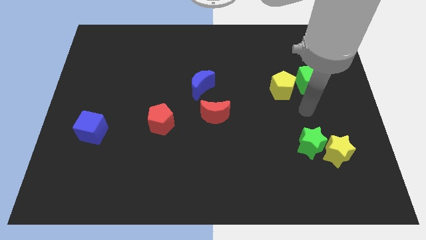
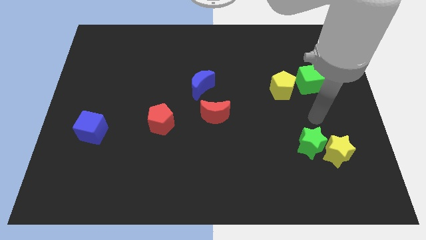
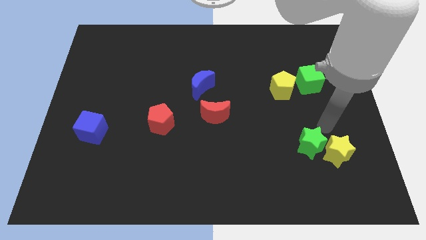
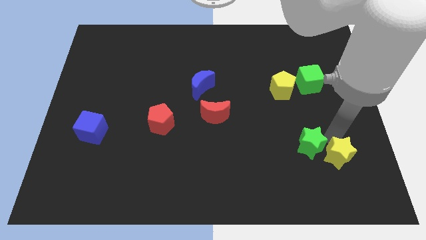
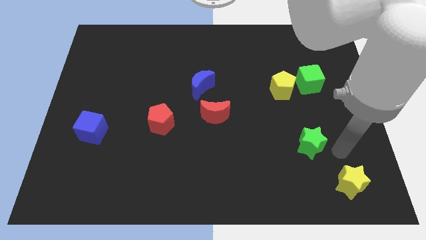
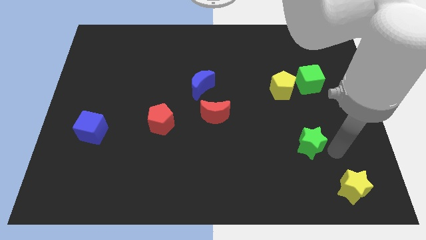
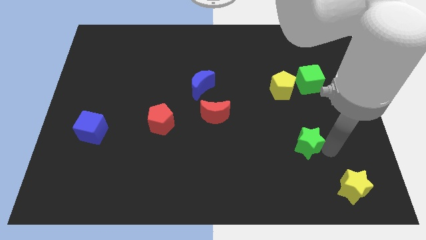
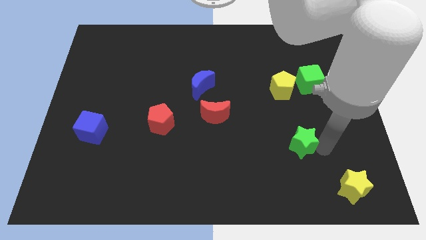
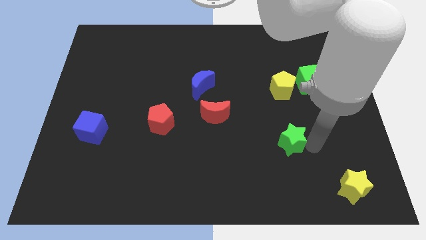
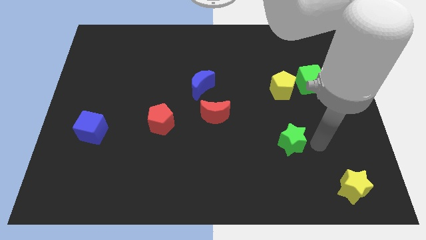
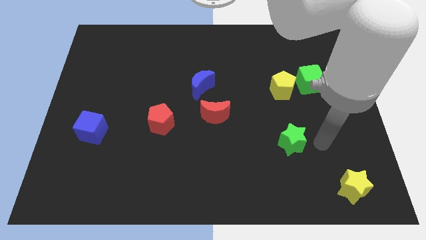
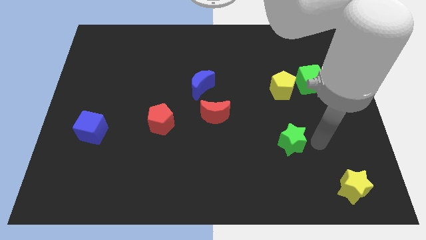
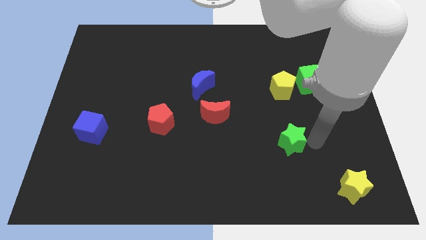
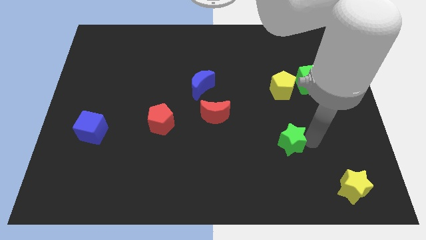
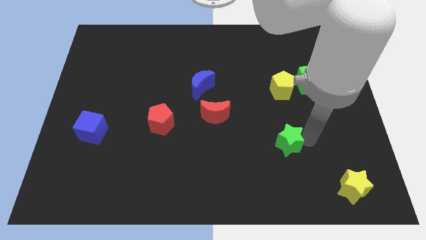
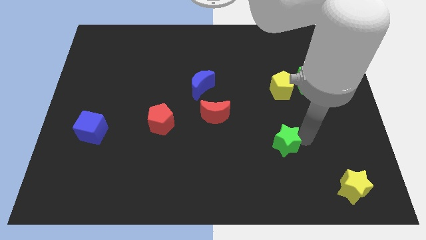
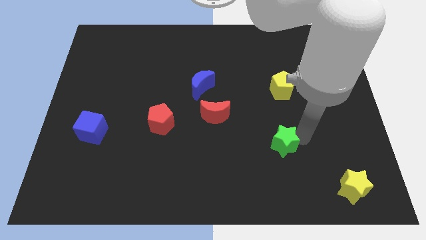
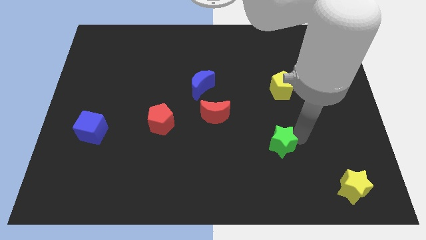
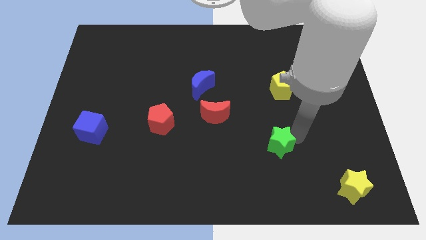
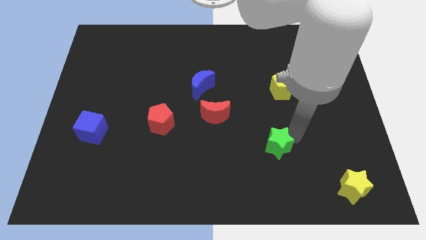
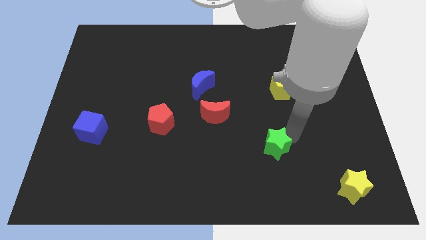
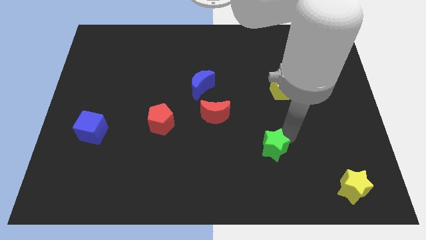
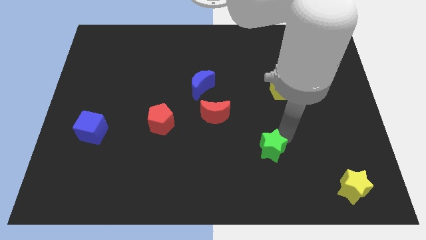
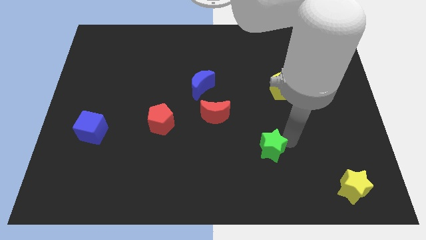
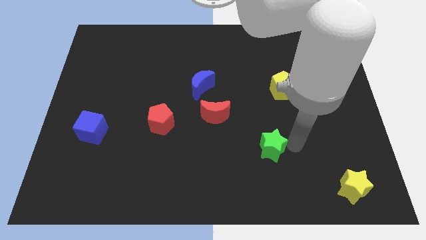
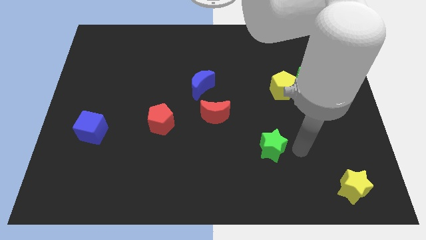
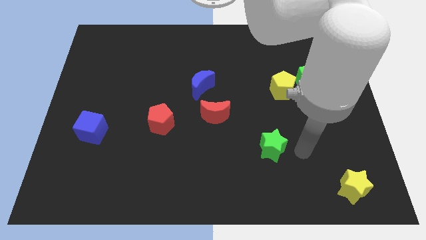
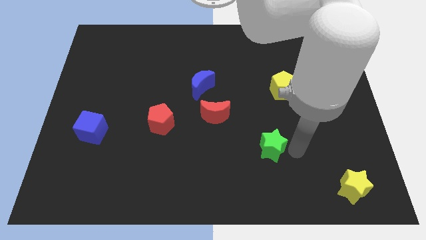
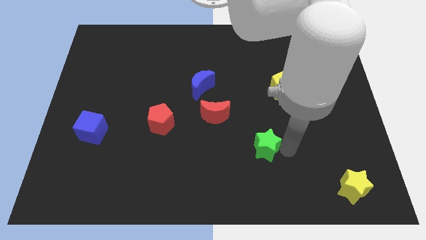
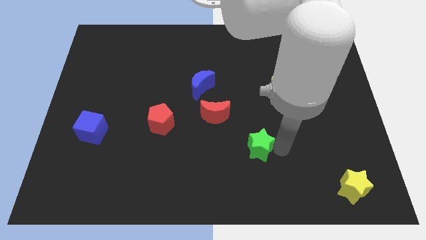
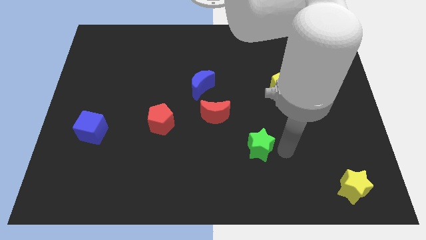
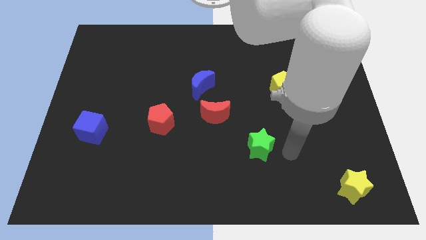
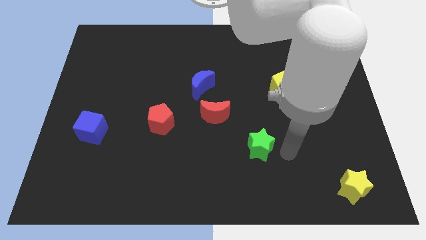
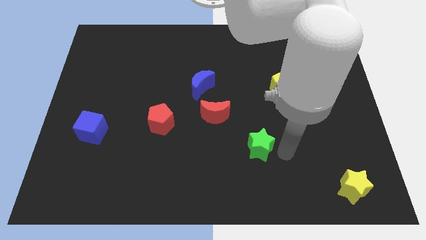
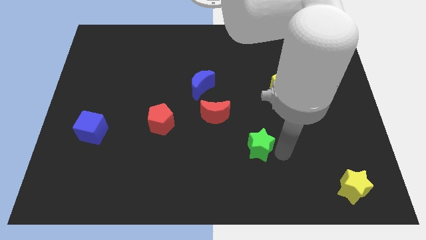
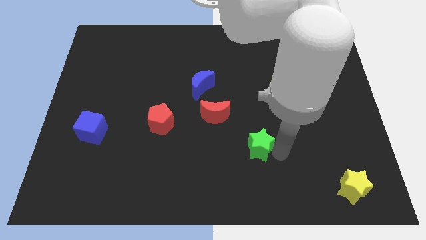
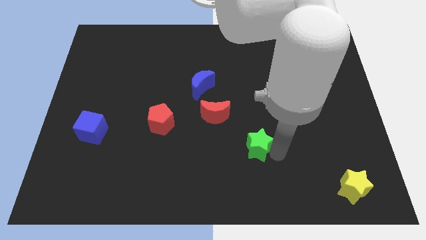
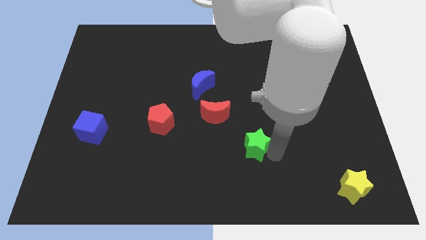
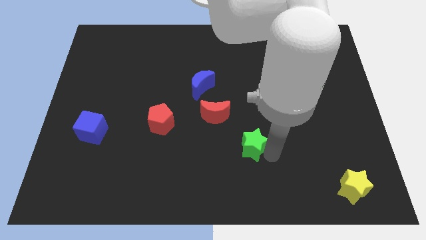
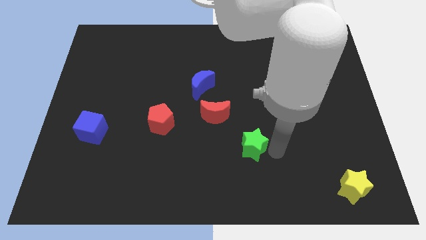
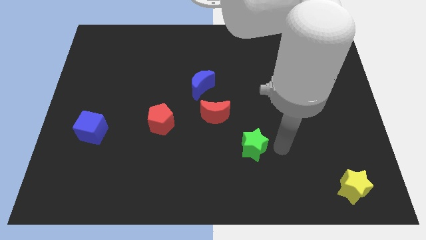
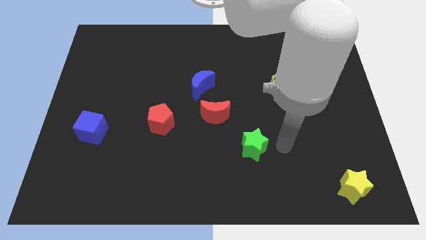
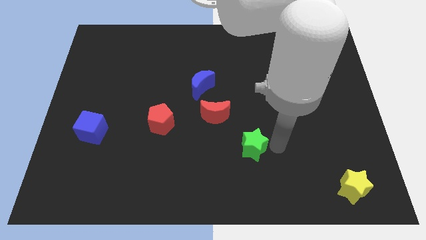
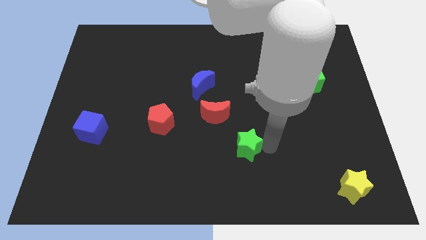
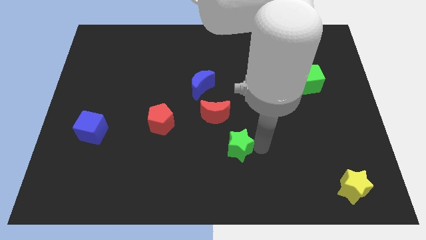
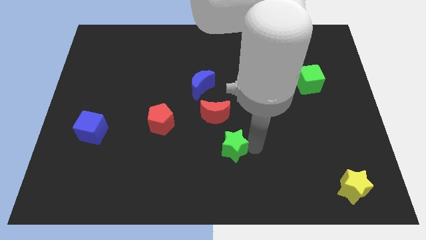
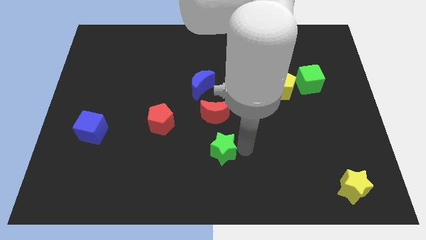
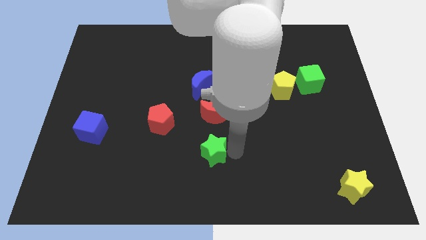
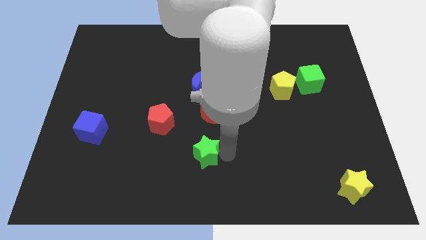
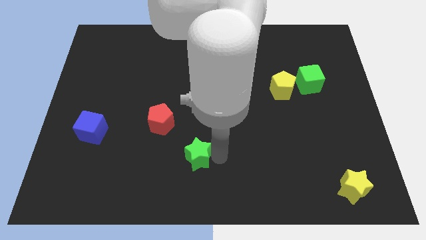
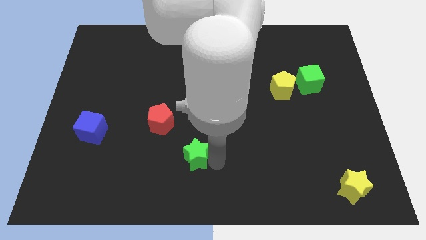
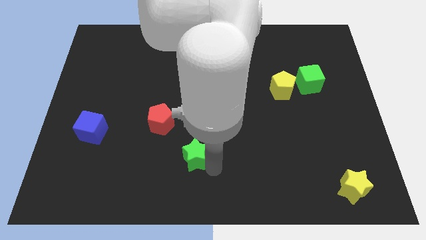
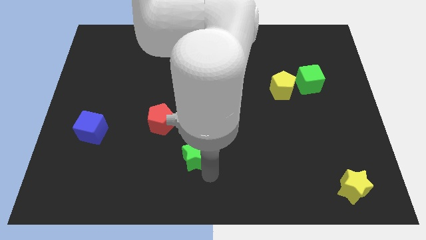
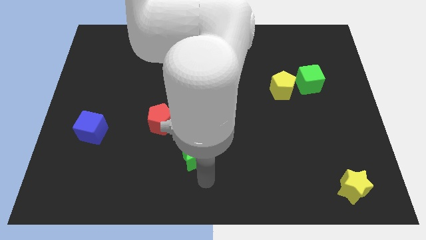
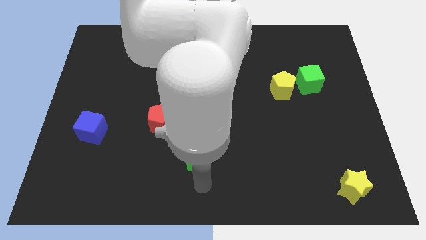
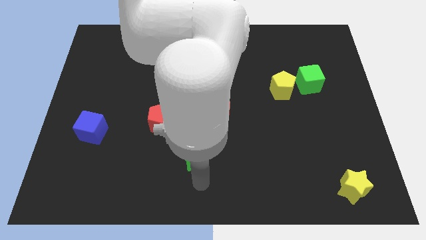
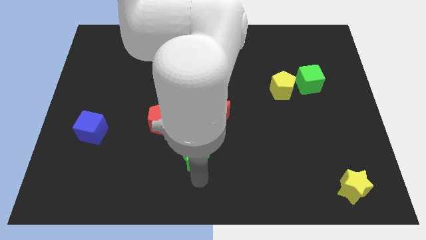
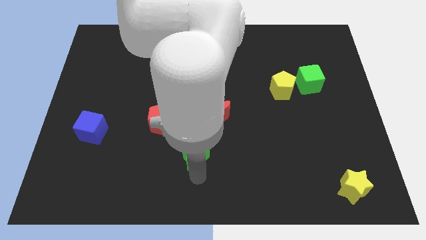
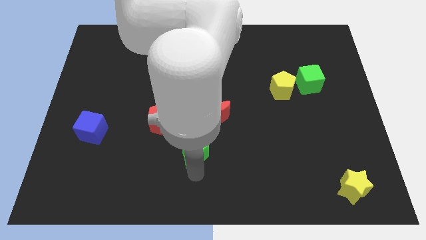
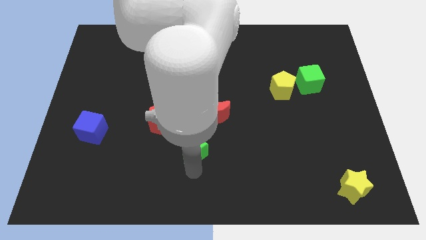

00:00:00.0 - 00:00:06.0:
put the green star diagonally down and to the left of the red moon

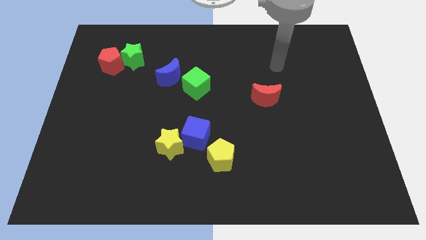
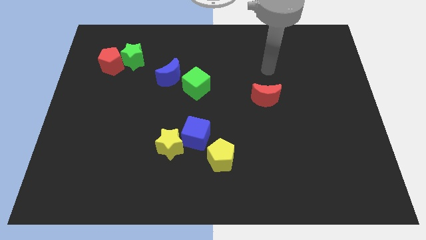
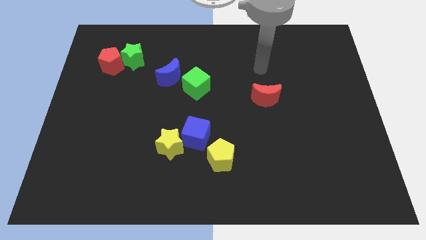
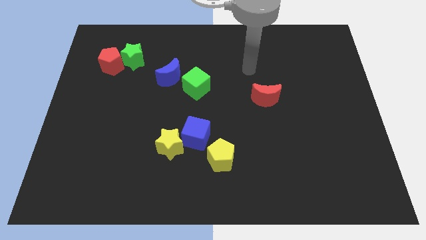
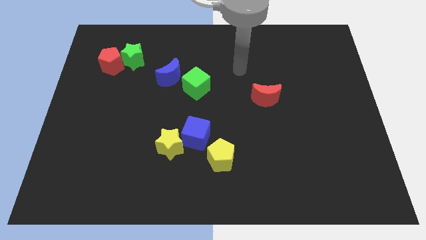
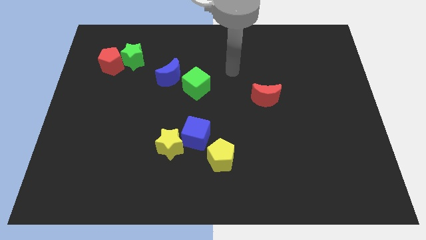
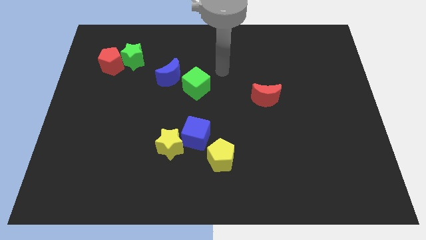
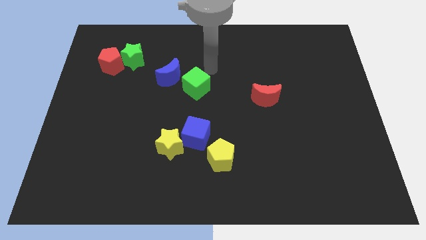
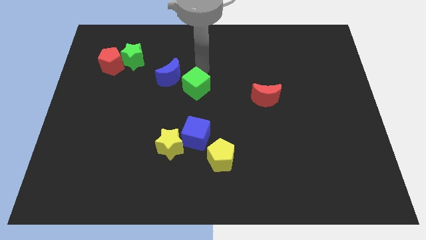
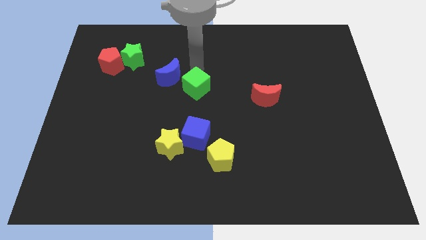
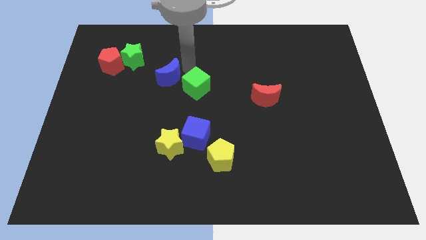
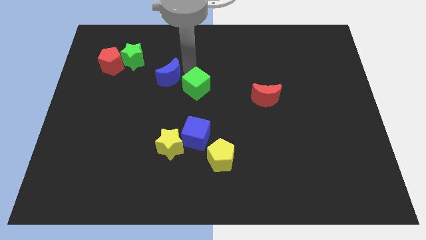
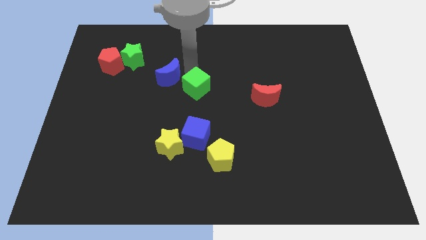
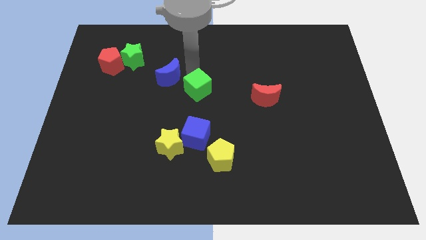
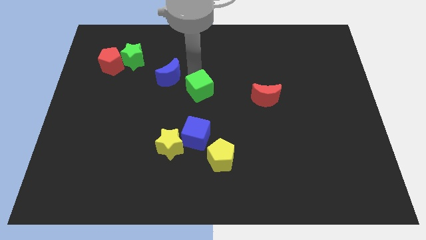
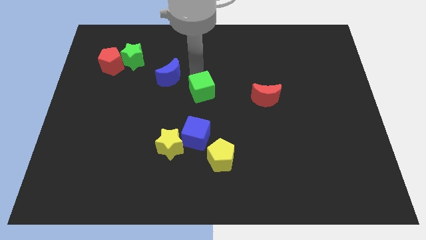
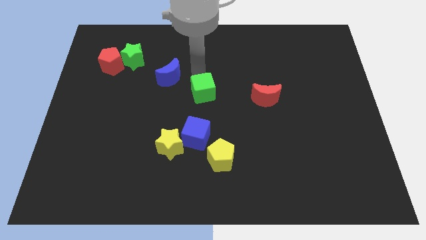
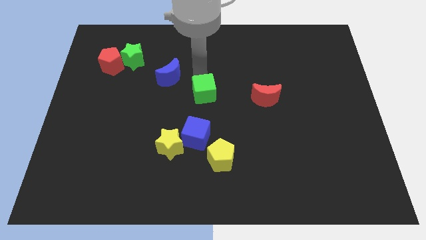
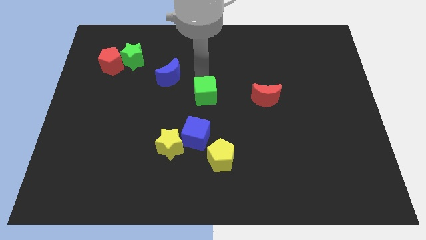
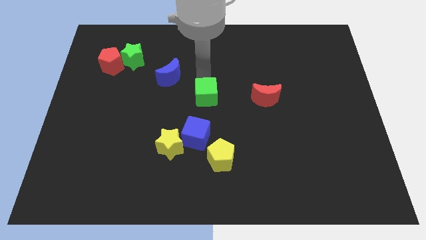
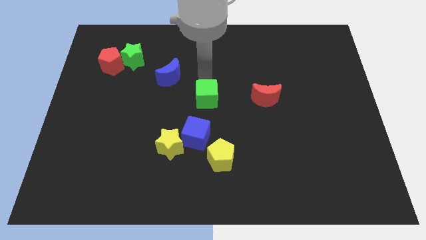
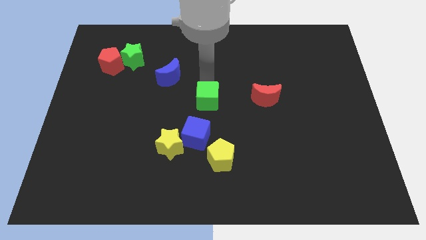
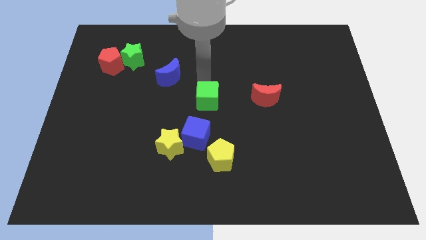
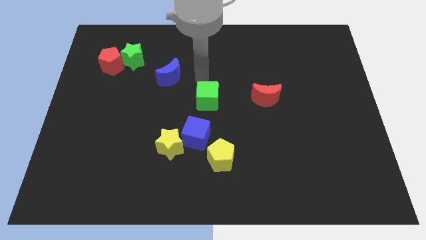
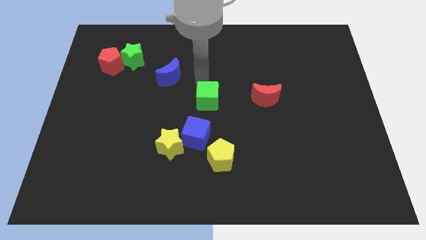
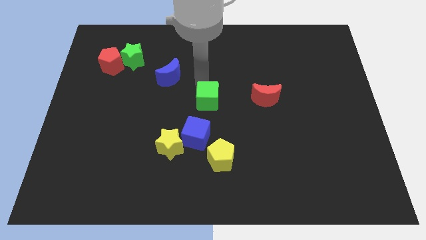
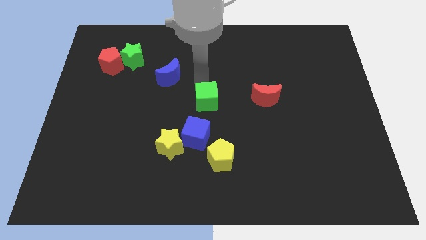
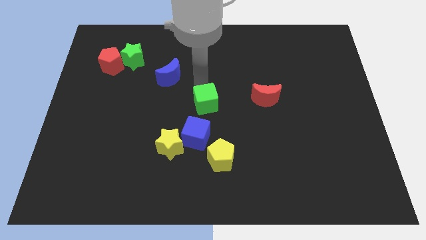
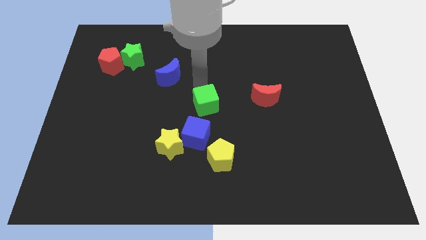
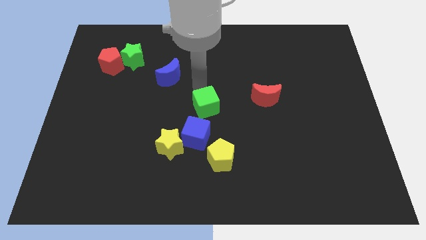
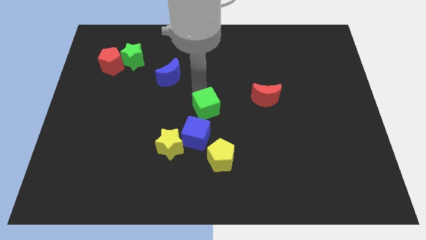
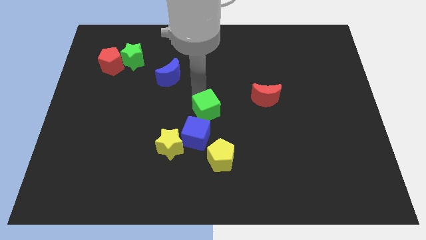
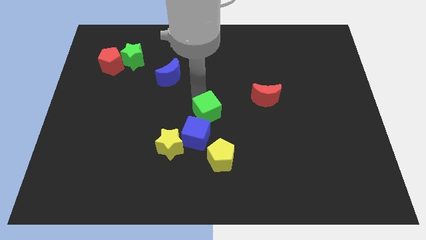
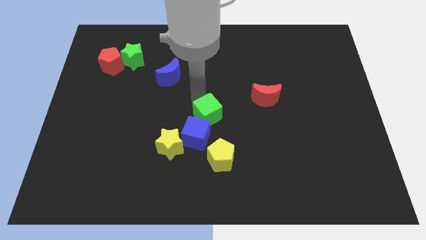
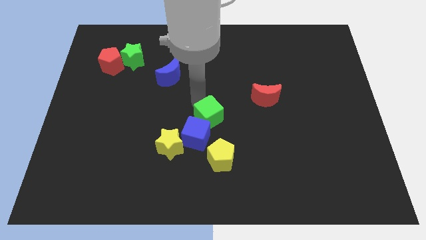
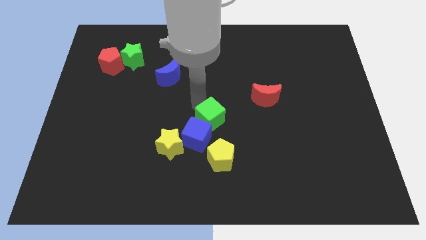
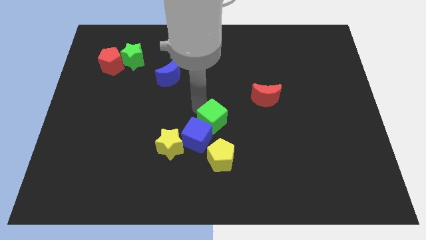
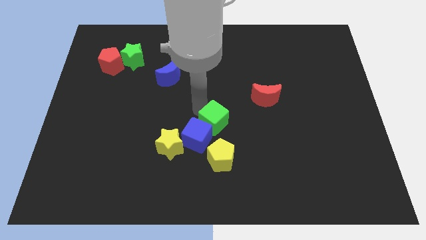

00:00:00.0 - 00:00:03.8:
slide the green cube to the right of the blue cube
